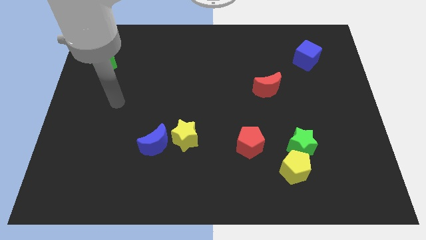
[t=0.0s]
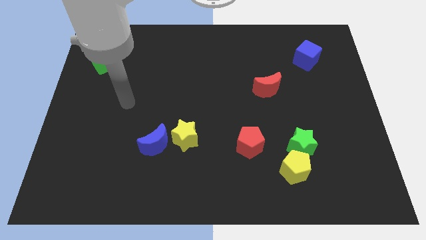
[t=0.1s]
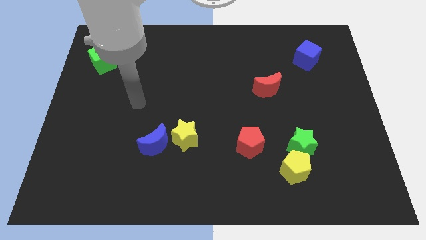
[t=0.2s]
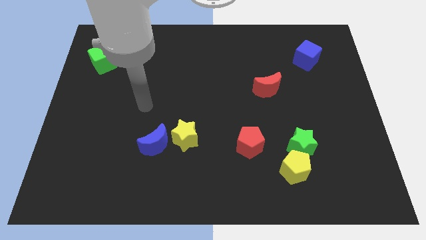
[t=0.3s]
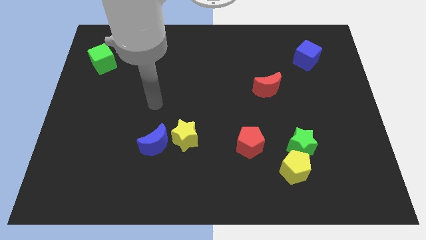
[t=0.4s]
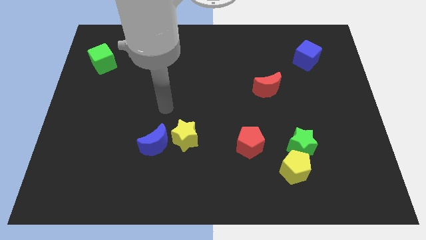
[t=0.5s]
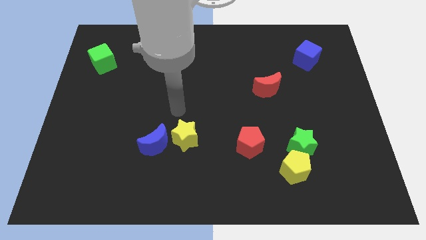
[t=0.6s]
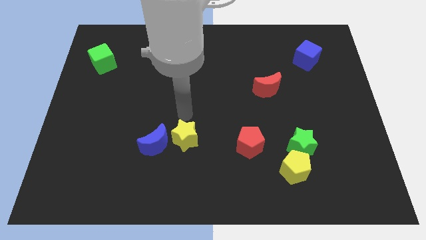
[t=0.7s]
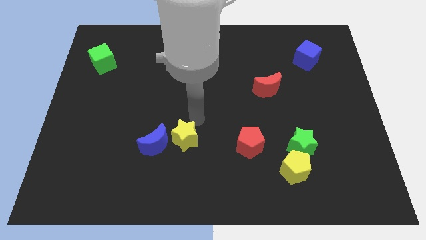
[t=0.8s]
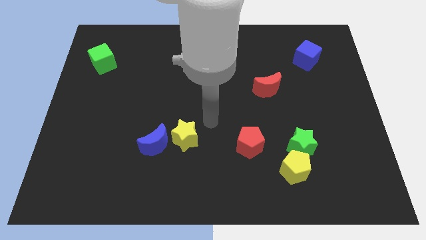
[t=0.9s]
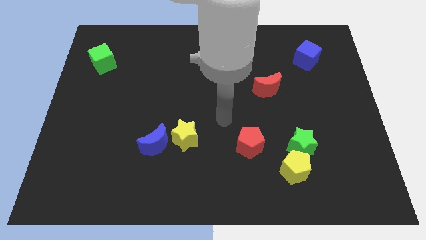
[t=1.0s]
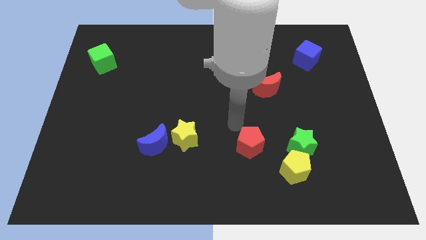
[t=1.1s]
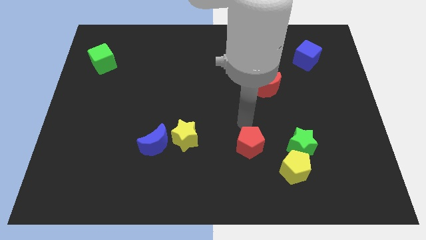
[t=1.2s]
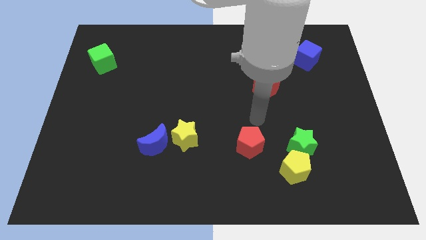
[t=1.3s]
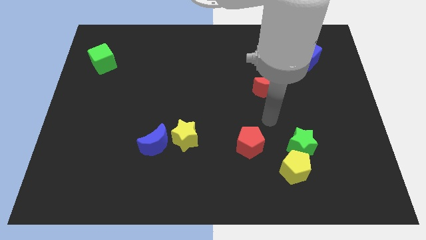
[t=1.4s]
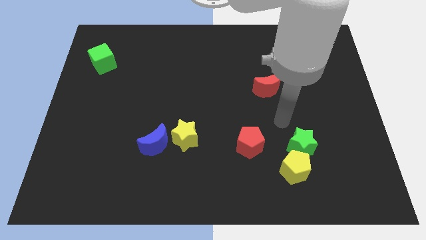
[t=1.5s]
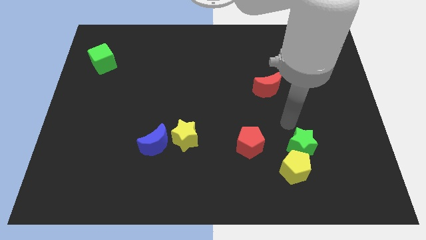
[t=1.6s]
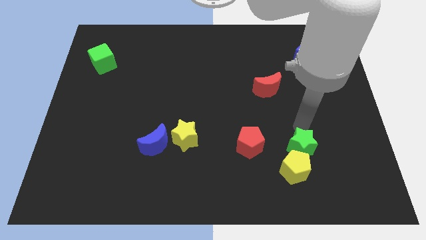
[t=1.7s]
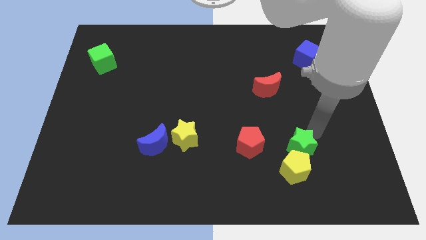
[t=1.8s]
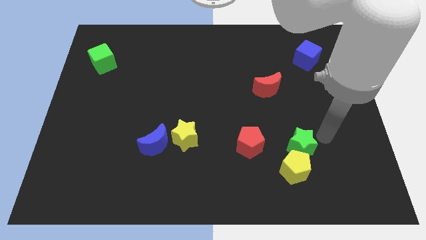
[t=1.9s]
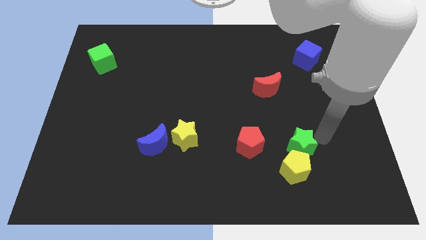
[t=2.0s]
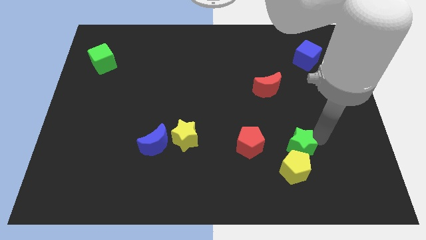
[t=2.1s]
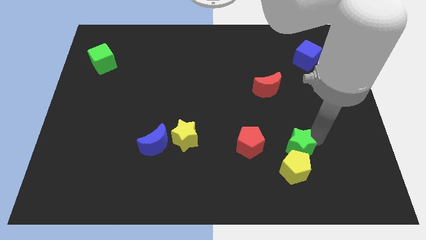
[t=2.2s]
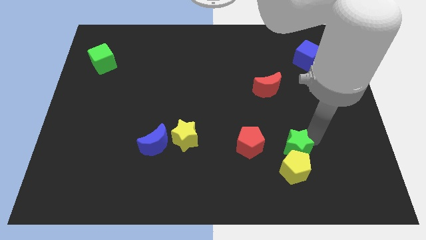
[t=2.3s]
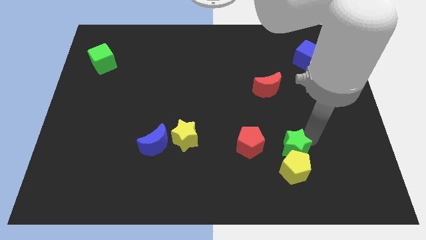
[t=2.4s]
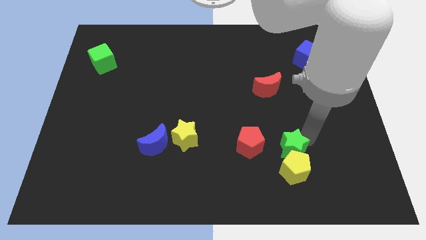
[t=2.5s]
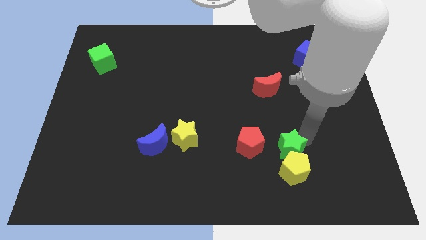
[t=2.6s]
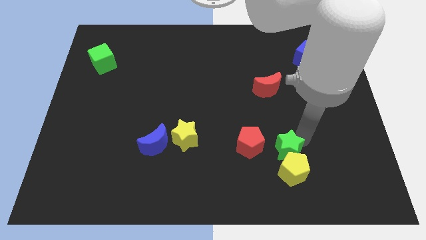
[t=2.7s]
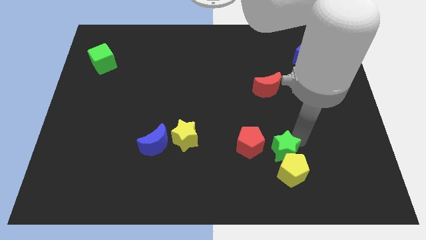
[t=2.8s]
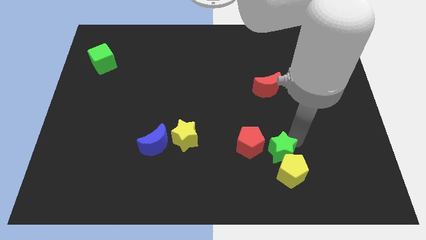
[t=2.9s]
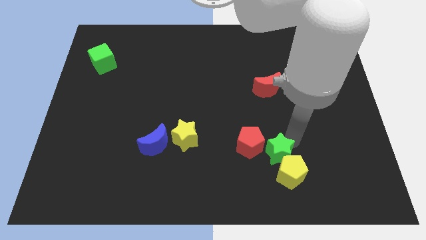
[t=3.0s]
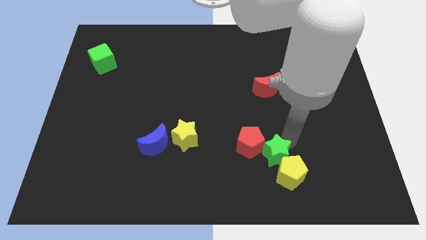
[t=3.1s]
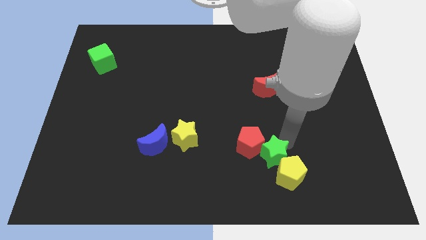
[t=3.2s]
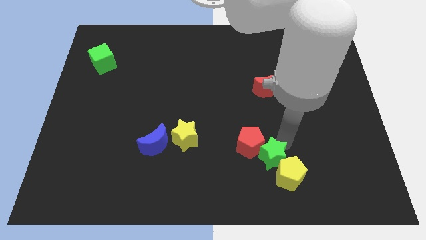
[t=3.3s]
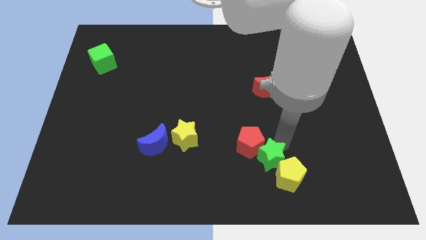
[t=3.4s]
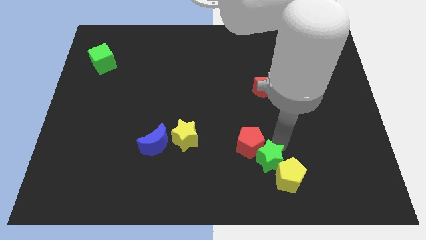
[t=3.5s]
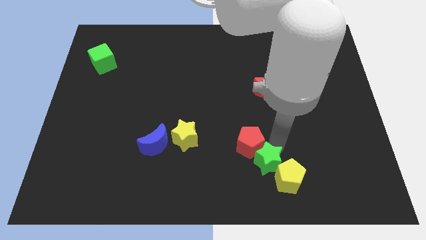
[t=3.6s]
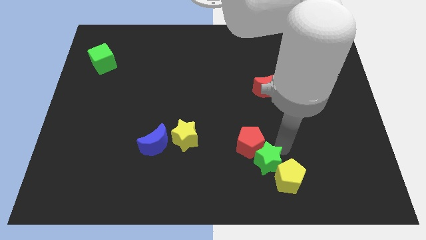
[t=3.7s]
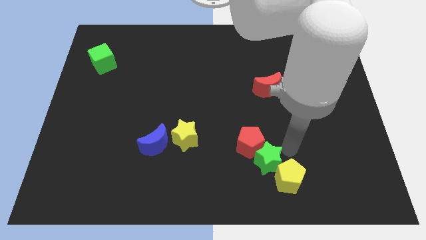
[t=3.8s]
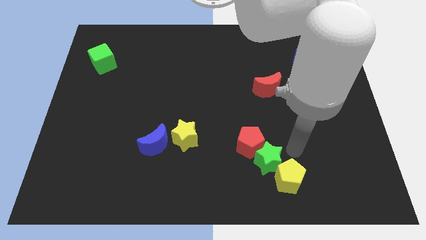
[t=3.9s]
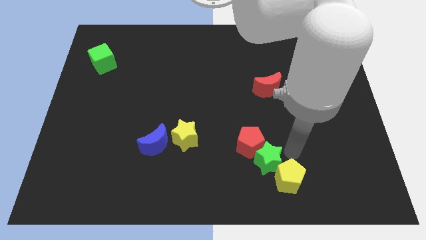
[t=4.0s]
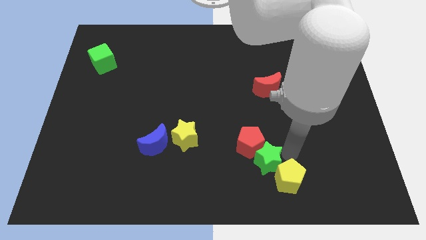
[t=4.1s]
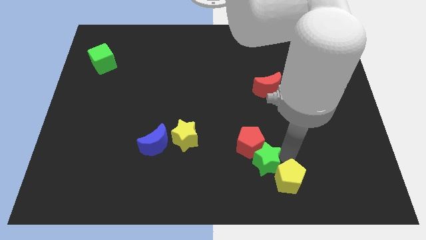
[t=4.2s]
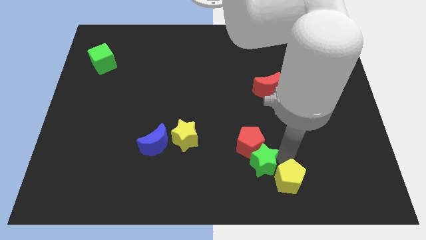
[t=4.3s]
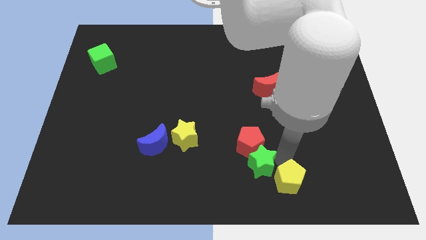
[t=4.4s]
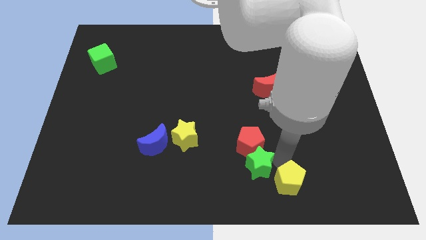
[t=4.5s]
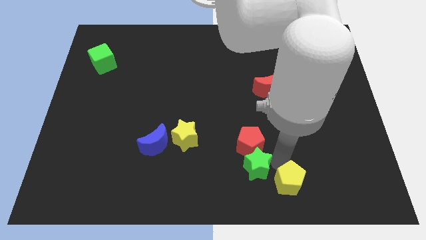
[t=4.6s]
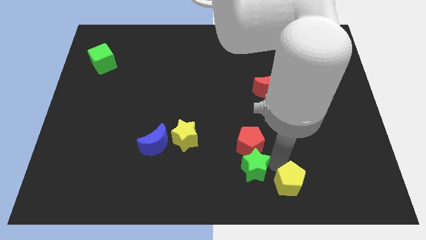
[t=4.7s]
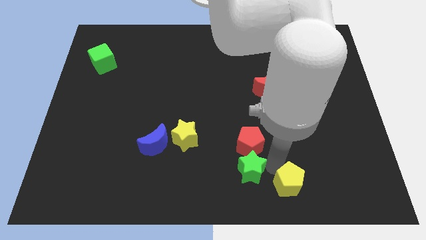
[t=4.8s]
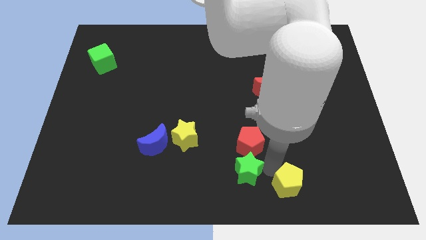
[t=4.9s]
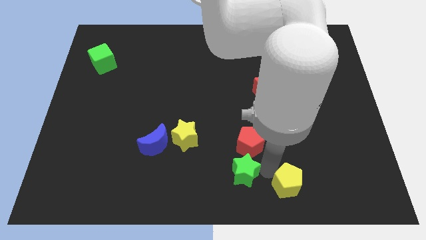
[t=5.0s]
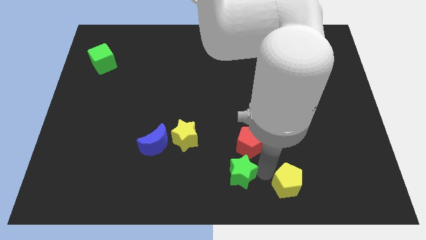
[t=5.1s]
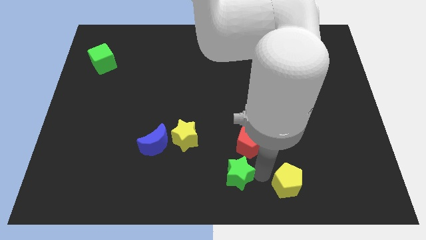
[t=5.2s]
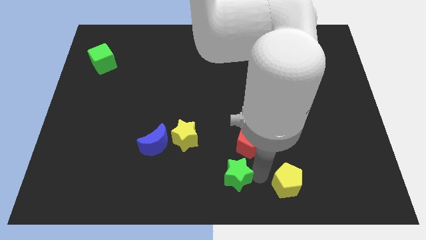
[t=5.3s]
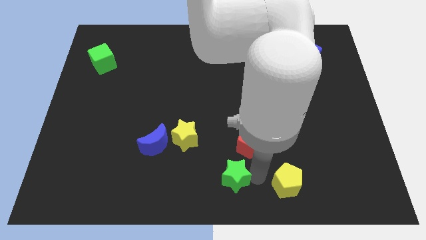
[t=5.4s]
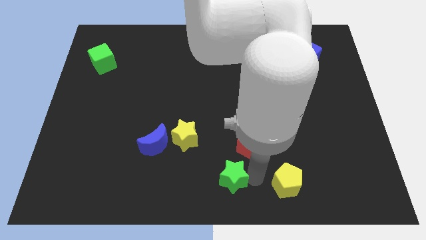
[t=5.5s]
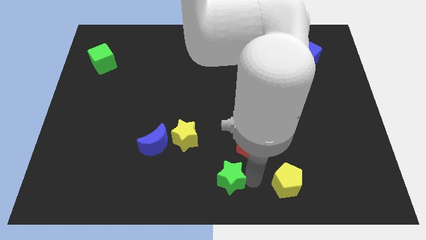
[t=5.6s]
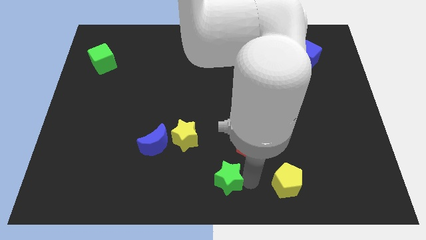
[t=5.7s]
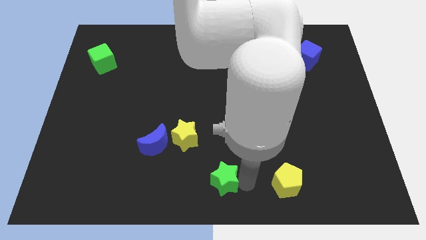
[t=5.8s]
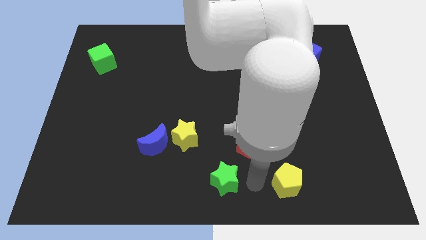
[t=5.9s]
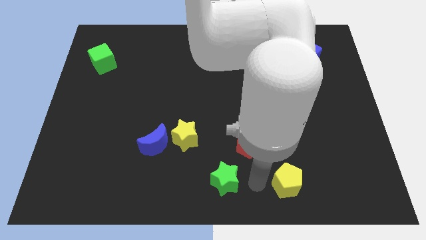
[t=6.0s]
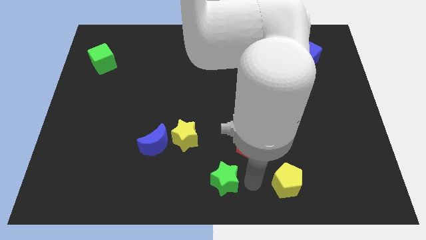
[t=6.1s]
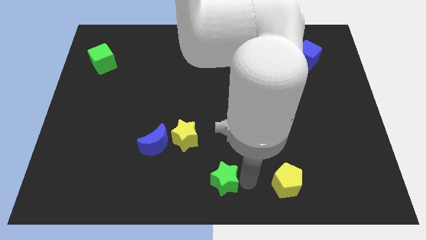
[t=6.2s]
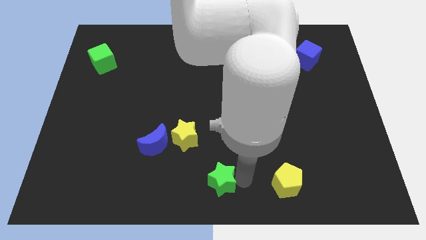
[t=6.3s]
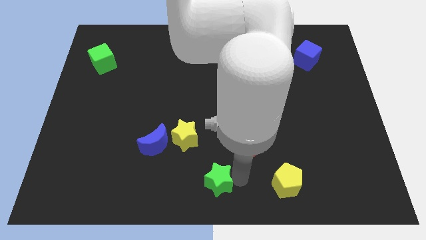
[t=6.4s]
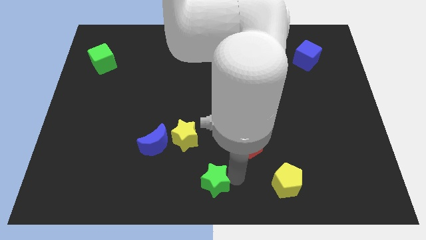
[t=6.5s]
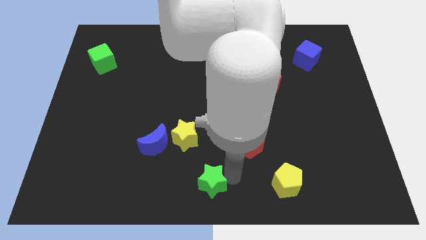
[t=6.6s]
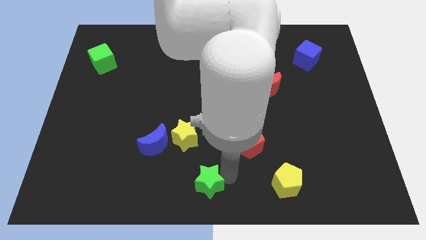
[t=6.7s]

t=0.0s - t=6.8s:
move the green star below the yellow star
